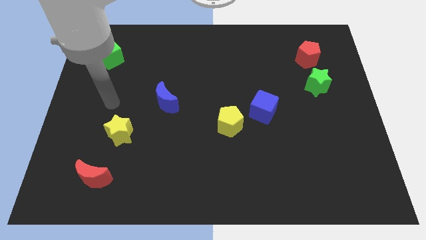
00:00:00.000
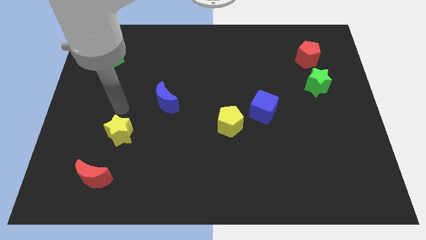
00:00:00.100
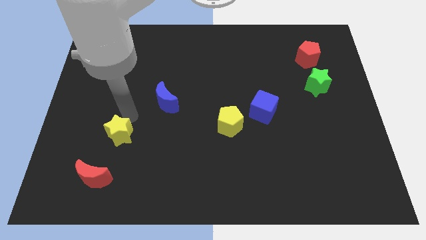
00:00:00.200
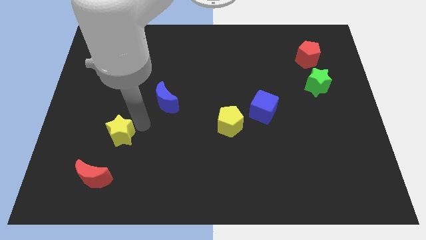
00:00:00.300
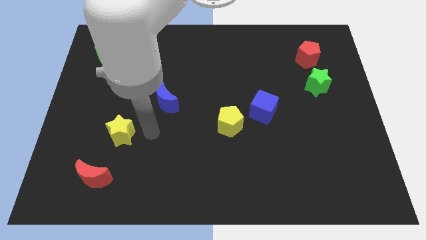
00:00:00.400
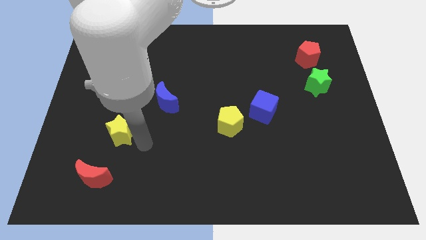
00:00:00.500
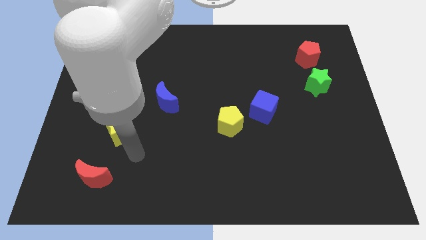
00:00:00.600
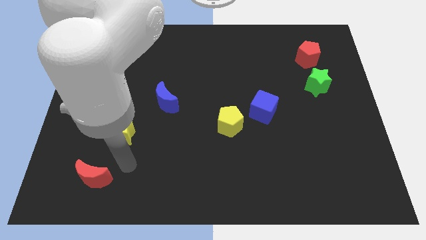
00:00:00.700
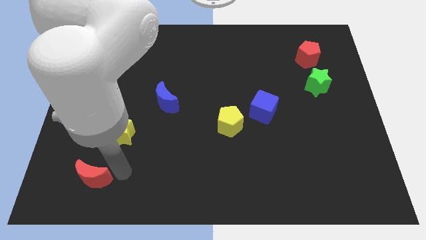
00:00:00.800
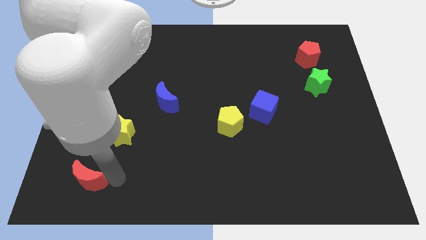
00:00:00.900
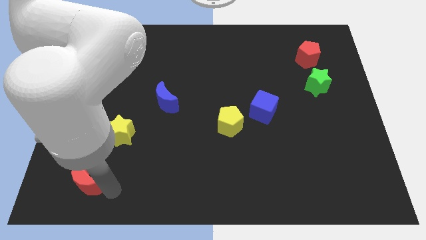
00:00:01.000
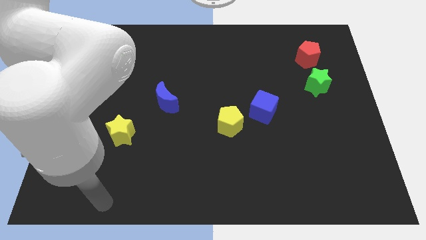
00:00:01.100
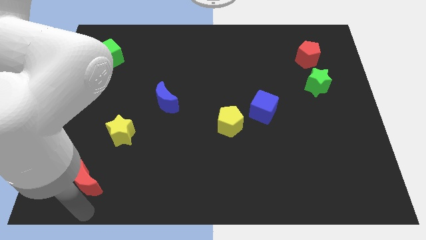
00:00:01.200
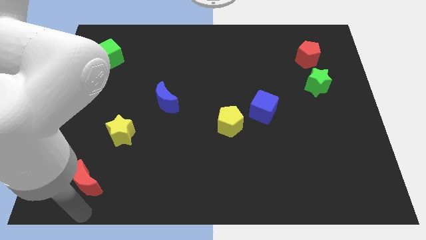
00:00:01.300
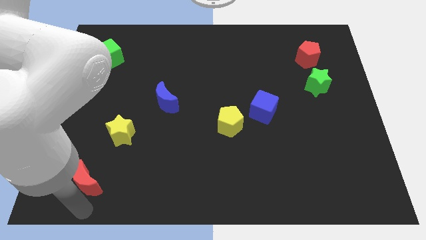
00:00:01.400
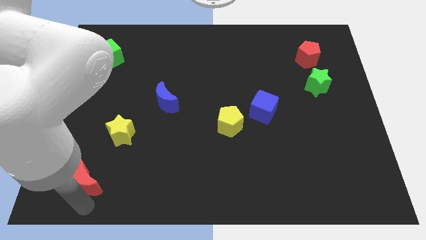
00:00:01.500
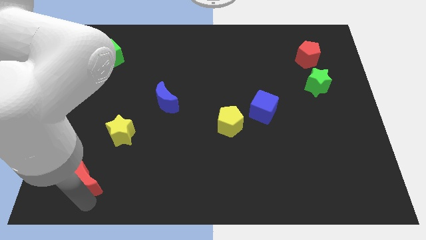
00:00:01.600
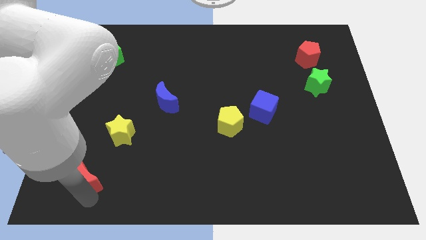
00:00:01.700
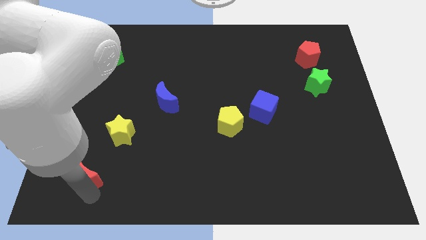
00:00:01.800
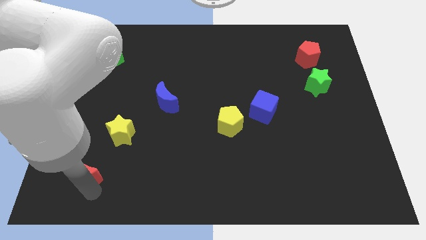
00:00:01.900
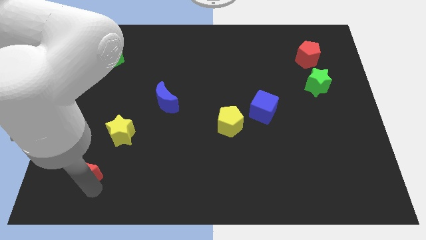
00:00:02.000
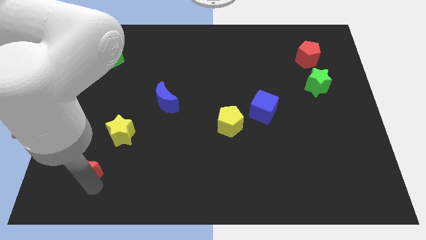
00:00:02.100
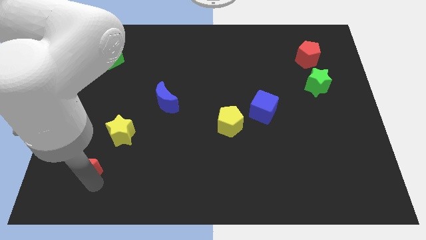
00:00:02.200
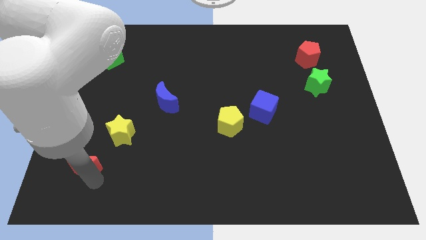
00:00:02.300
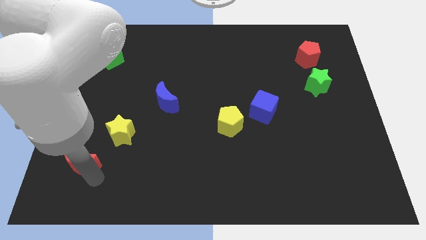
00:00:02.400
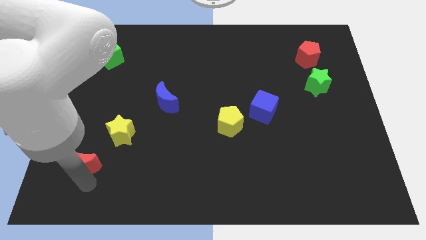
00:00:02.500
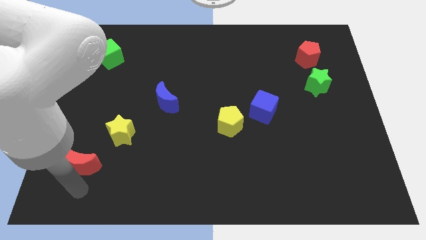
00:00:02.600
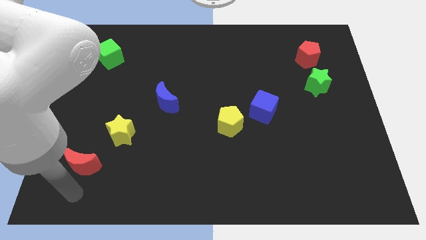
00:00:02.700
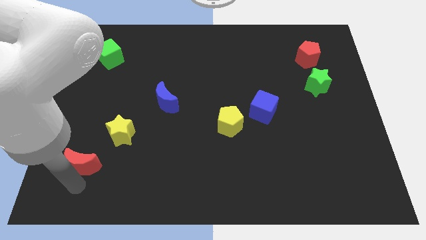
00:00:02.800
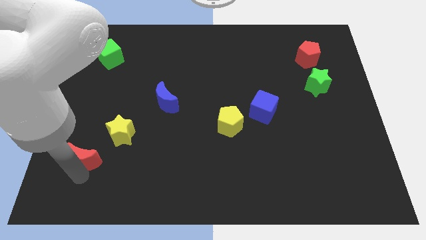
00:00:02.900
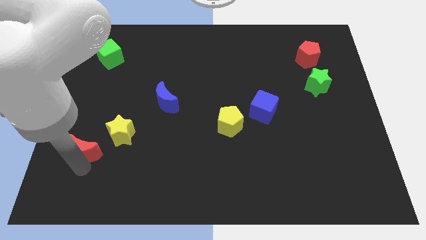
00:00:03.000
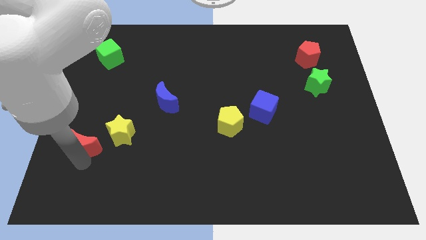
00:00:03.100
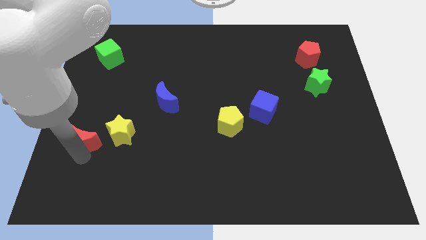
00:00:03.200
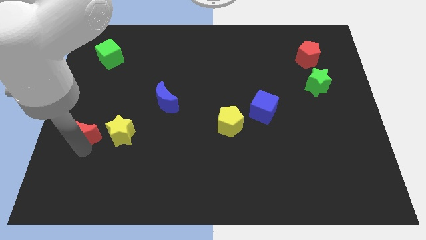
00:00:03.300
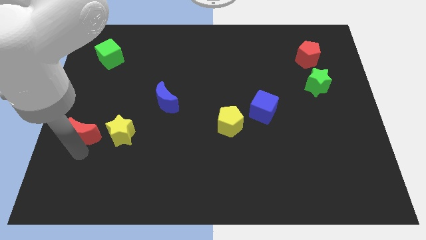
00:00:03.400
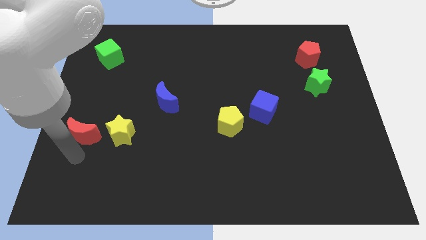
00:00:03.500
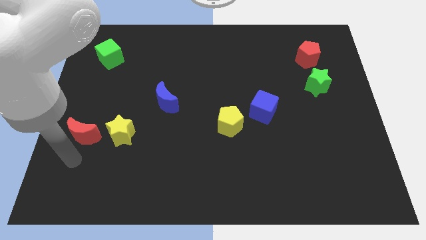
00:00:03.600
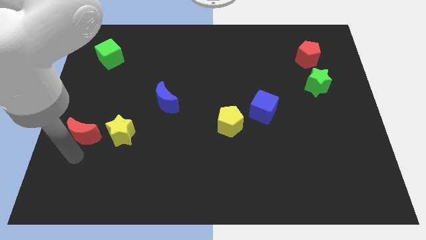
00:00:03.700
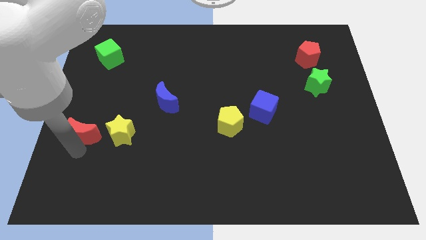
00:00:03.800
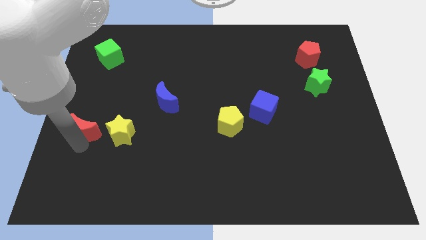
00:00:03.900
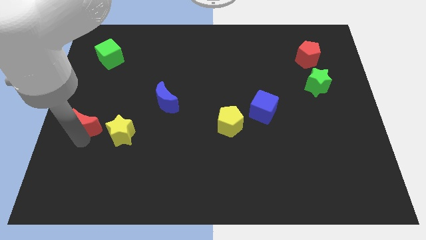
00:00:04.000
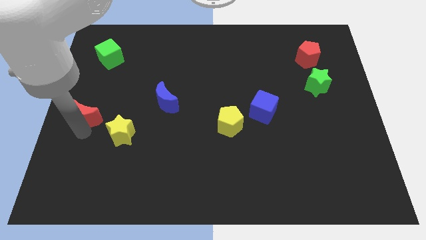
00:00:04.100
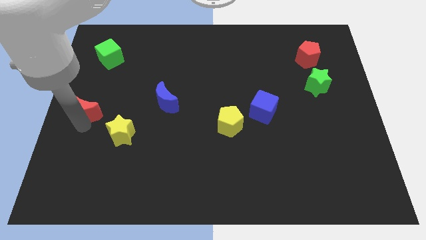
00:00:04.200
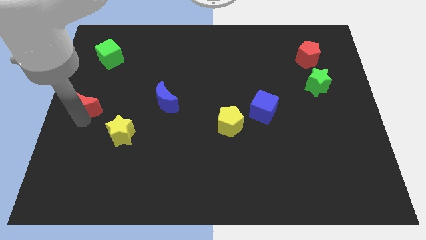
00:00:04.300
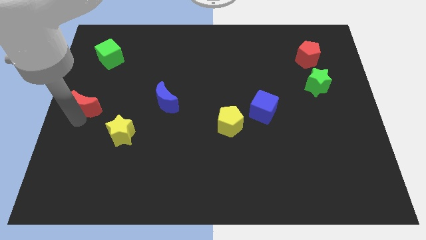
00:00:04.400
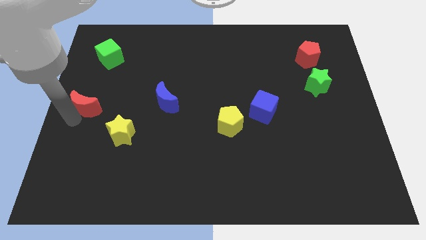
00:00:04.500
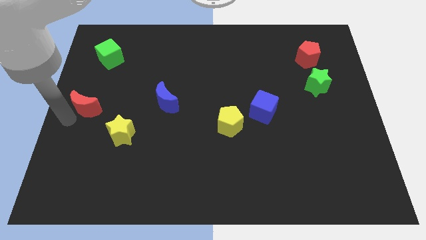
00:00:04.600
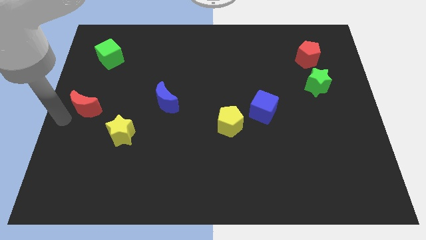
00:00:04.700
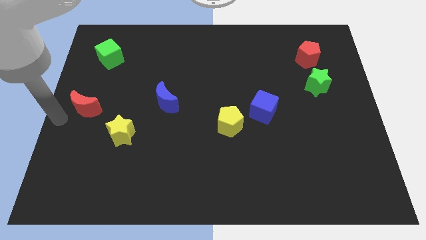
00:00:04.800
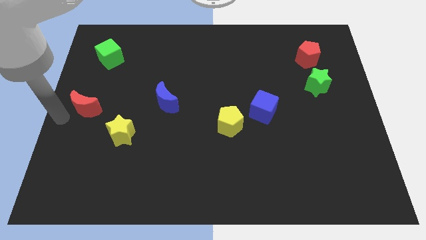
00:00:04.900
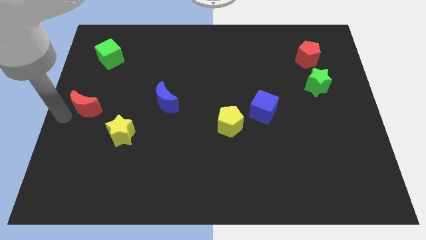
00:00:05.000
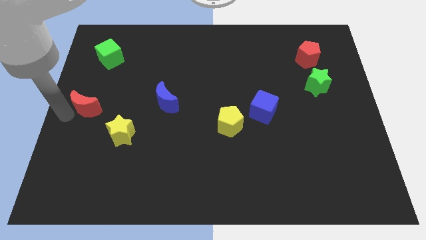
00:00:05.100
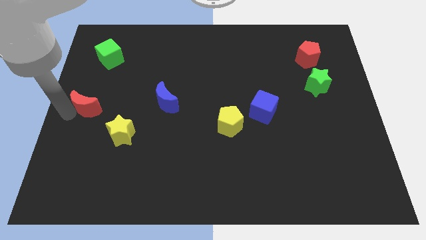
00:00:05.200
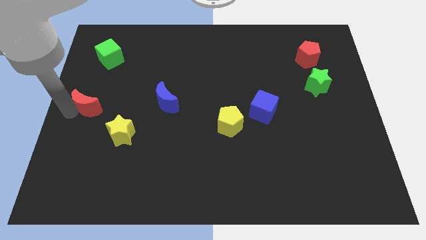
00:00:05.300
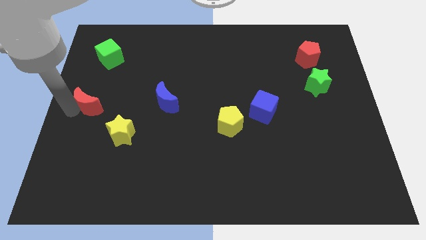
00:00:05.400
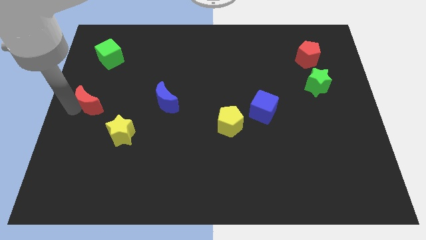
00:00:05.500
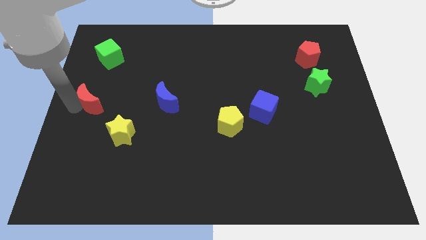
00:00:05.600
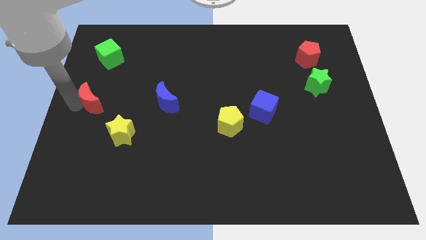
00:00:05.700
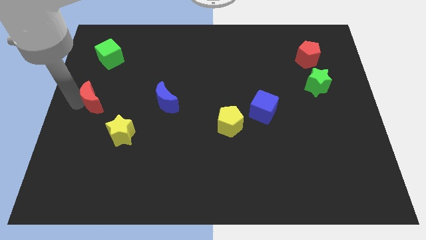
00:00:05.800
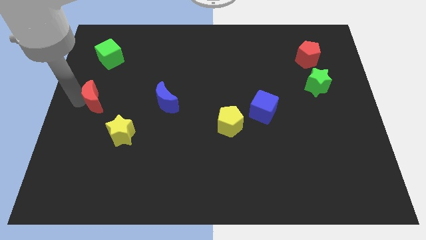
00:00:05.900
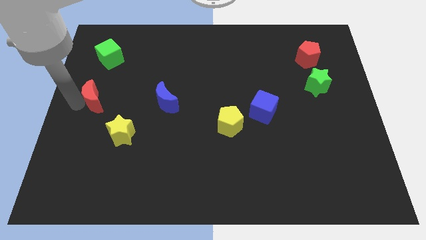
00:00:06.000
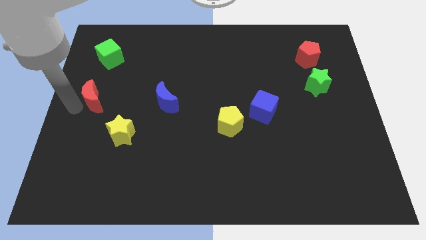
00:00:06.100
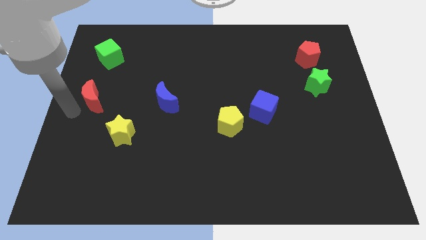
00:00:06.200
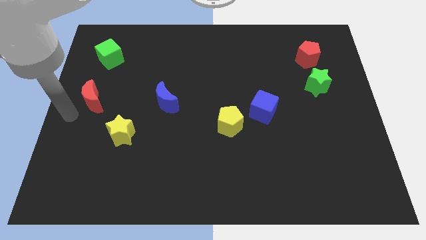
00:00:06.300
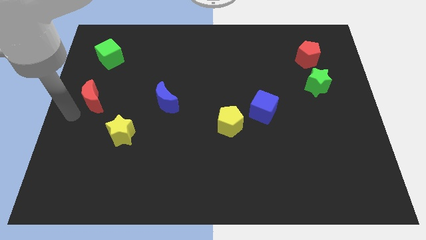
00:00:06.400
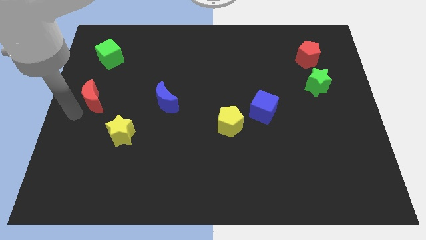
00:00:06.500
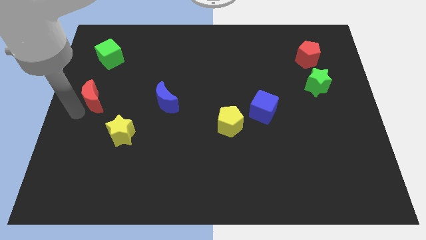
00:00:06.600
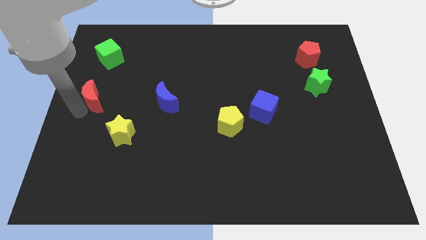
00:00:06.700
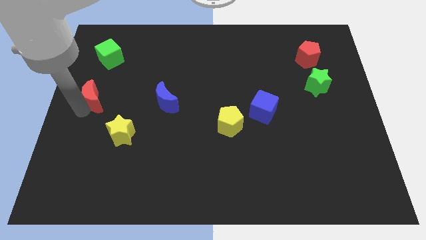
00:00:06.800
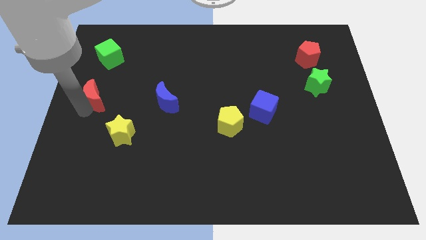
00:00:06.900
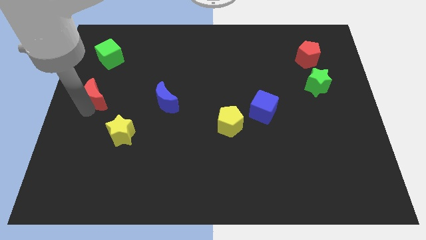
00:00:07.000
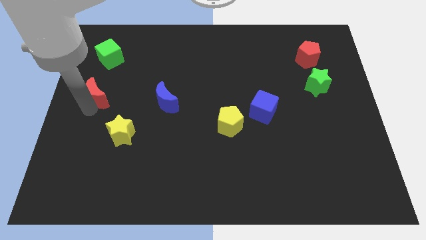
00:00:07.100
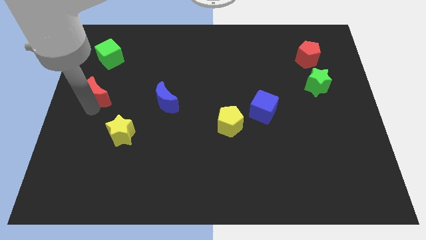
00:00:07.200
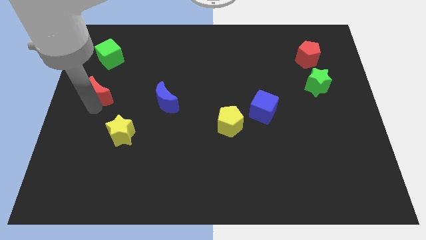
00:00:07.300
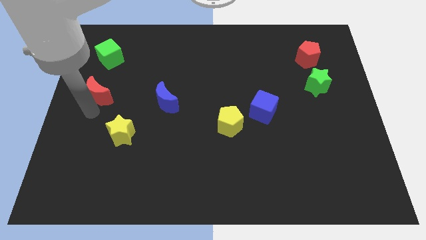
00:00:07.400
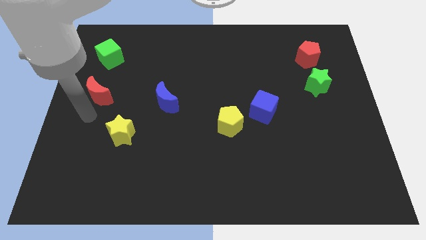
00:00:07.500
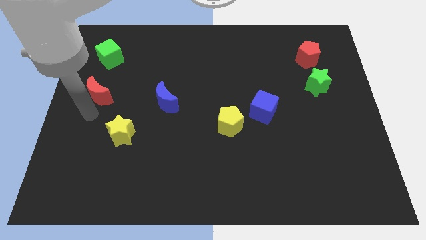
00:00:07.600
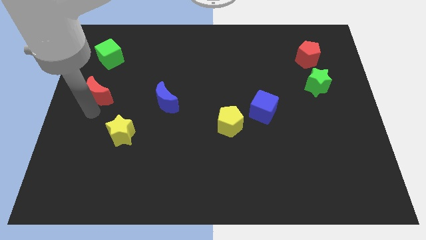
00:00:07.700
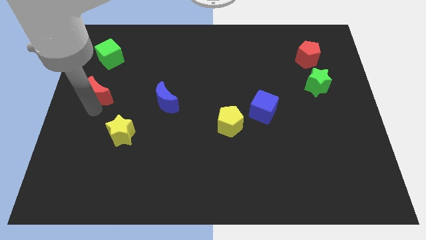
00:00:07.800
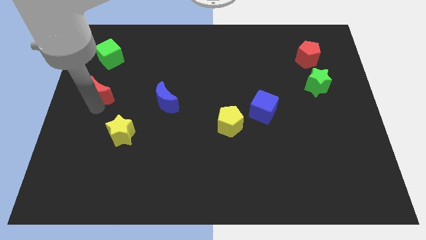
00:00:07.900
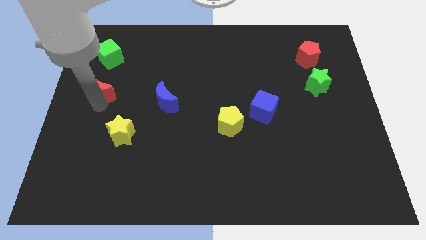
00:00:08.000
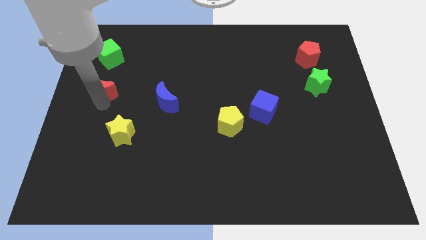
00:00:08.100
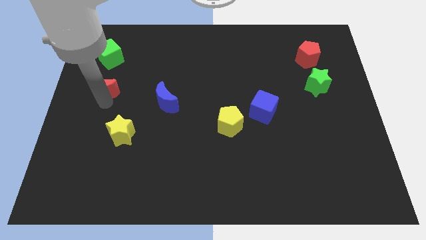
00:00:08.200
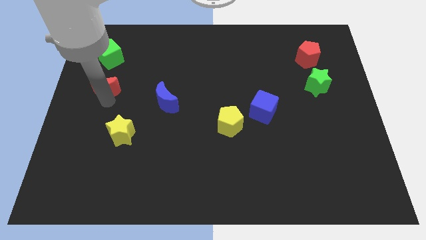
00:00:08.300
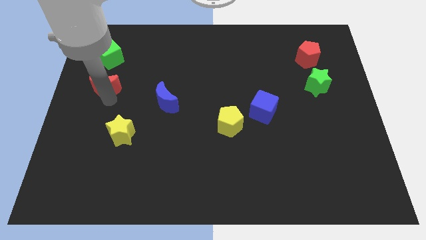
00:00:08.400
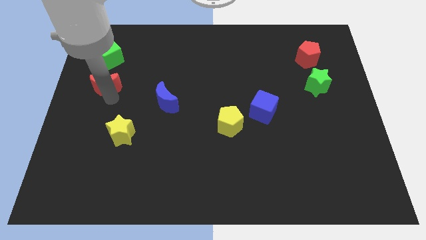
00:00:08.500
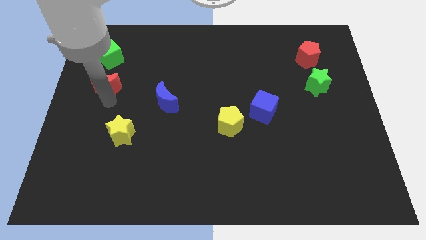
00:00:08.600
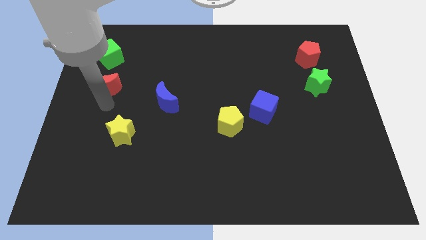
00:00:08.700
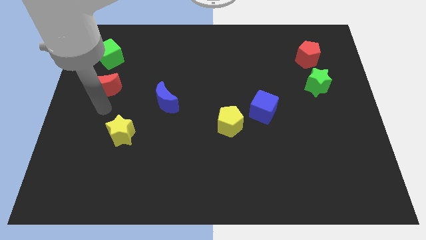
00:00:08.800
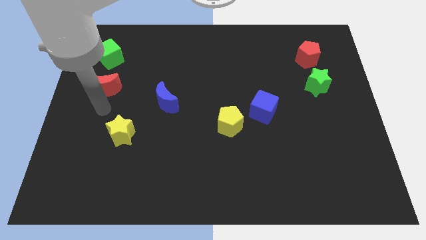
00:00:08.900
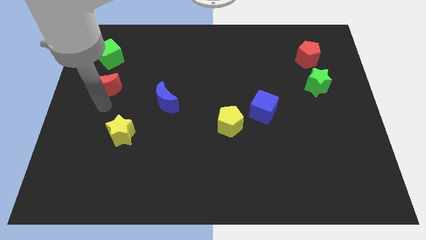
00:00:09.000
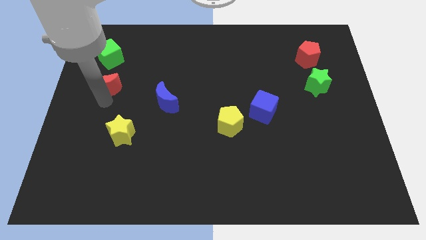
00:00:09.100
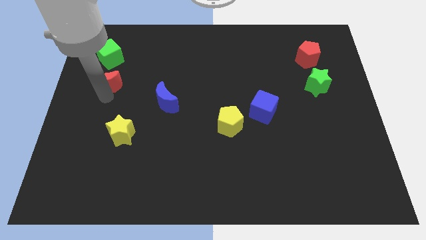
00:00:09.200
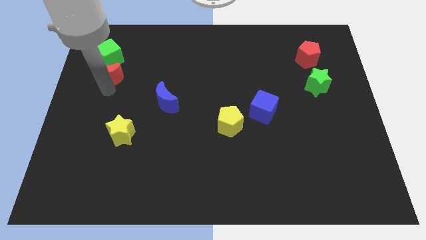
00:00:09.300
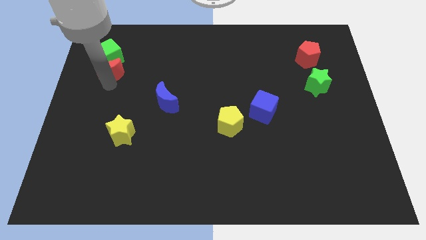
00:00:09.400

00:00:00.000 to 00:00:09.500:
move the red moon towards the green cube
